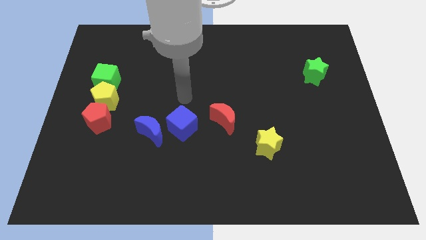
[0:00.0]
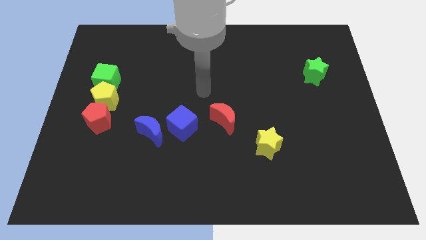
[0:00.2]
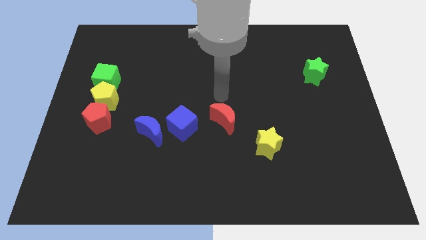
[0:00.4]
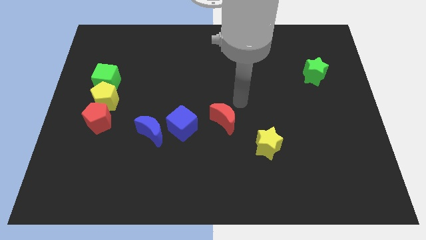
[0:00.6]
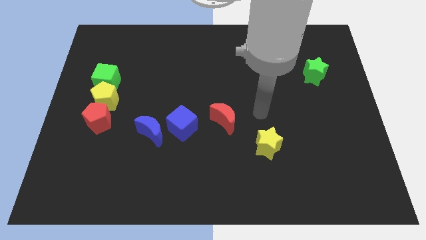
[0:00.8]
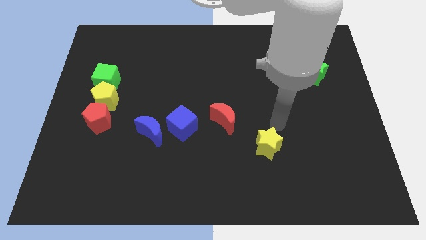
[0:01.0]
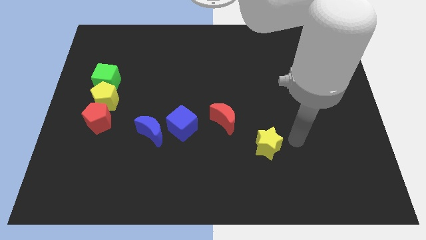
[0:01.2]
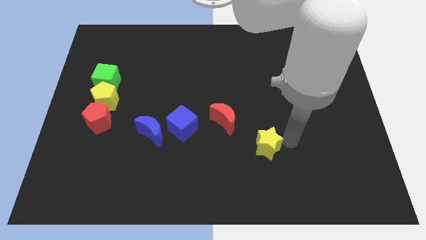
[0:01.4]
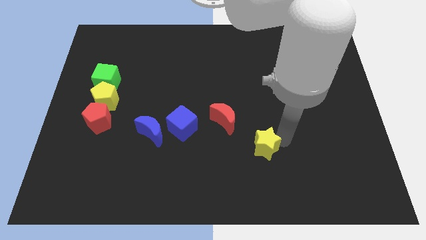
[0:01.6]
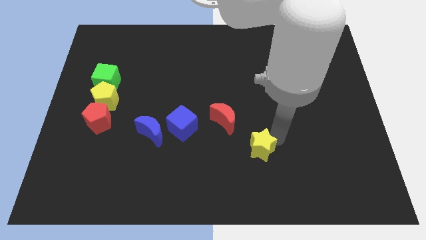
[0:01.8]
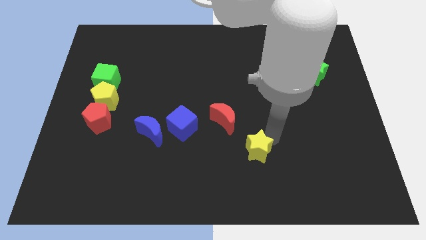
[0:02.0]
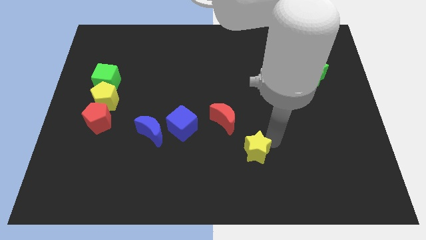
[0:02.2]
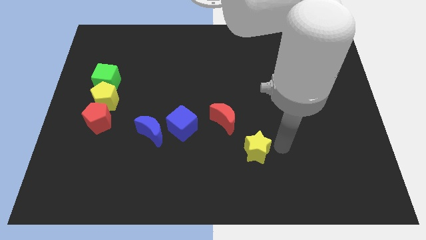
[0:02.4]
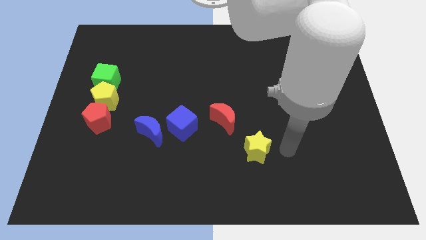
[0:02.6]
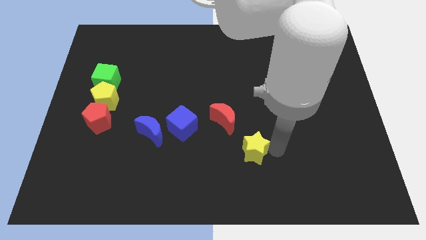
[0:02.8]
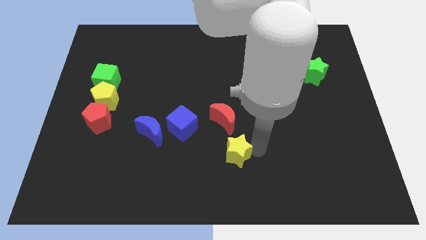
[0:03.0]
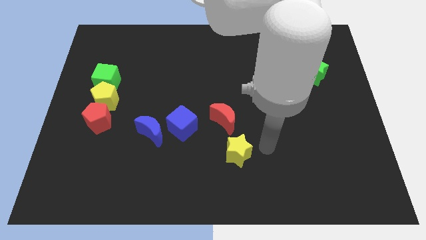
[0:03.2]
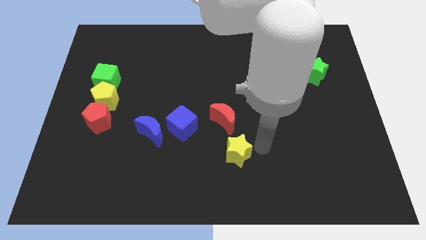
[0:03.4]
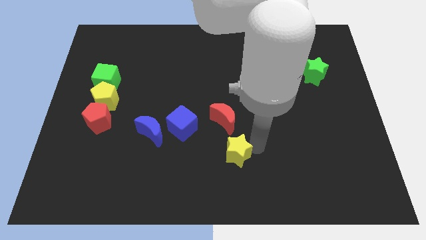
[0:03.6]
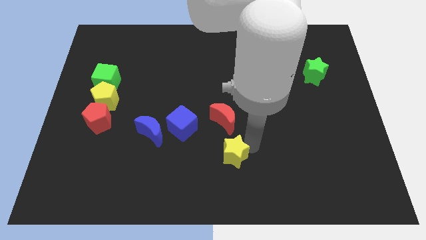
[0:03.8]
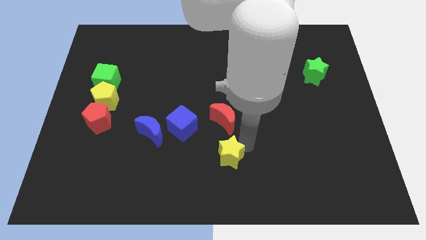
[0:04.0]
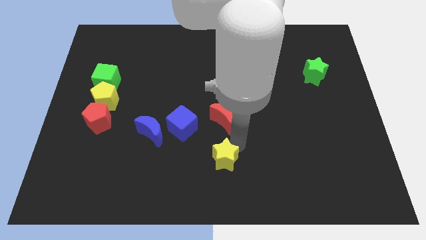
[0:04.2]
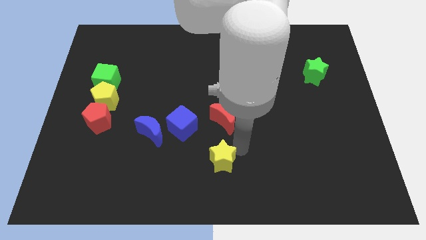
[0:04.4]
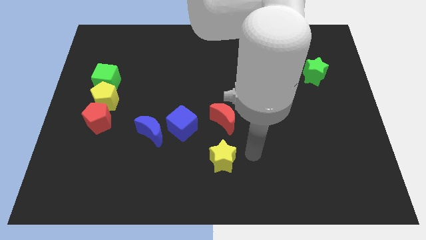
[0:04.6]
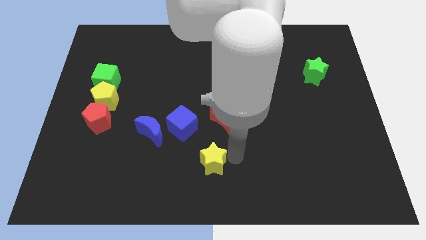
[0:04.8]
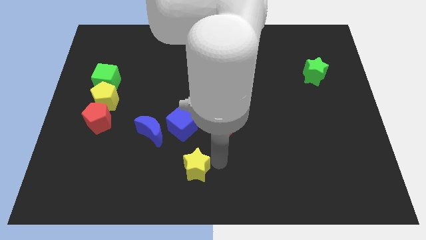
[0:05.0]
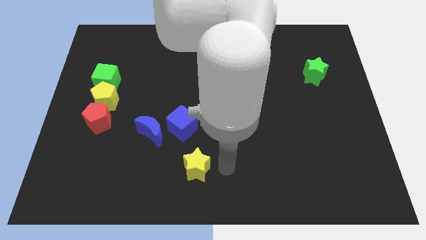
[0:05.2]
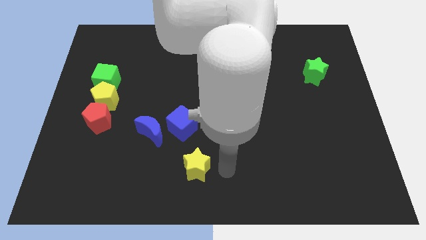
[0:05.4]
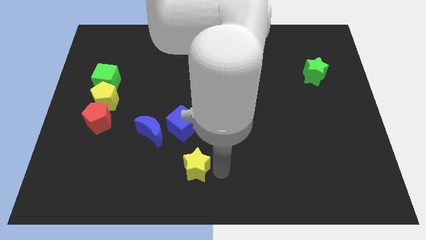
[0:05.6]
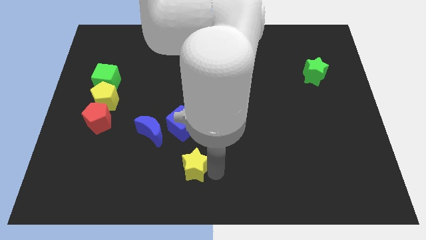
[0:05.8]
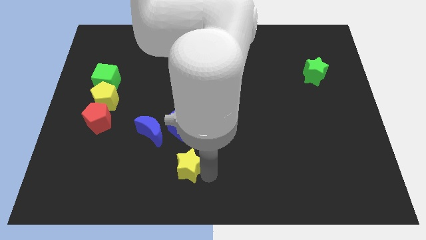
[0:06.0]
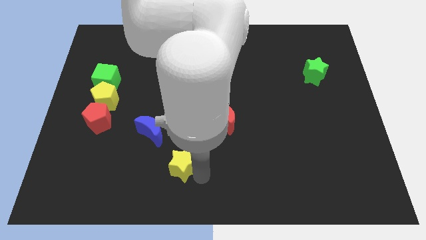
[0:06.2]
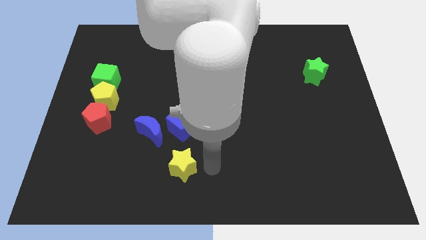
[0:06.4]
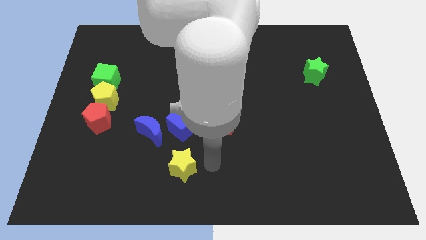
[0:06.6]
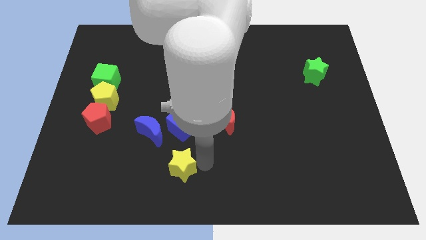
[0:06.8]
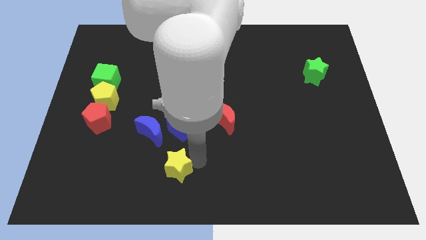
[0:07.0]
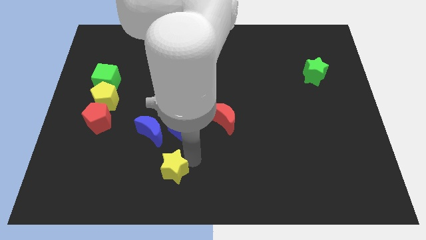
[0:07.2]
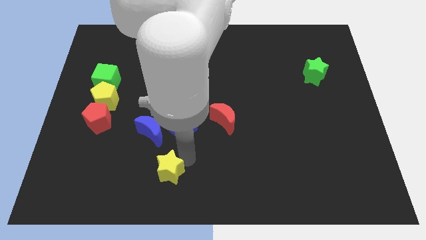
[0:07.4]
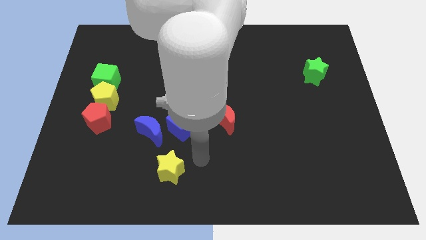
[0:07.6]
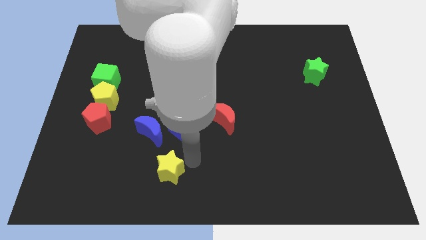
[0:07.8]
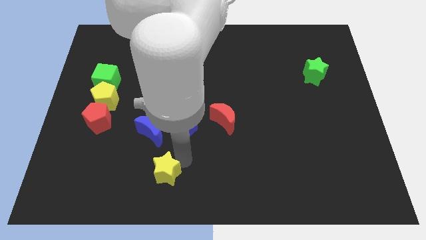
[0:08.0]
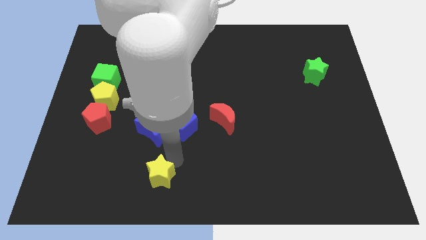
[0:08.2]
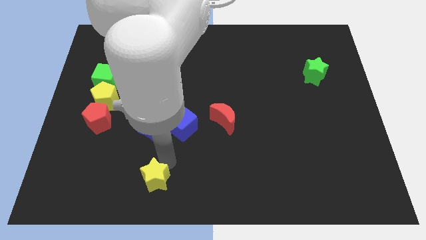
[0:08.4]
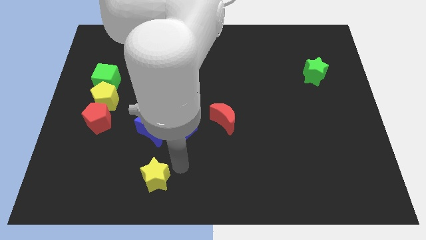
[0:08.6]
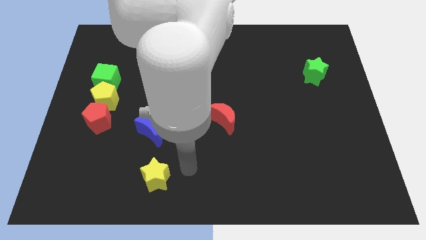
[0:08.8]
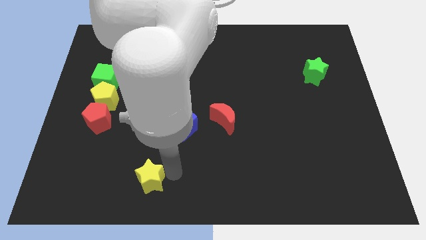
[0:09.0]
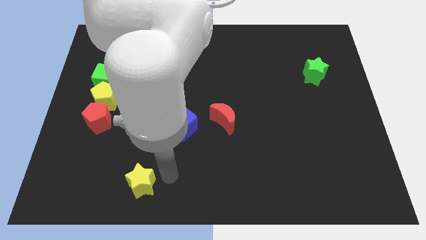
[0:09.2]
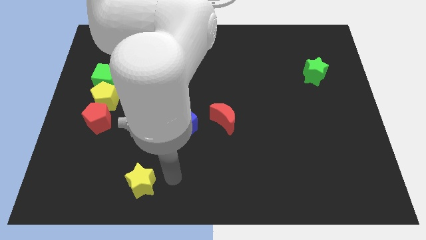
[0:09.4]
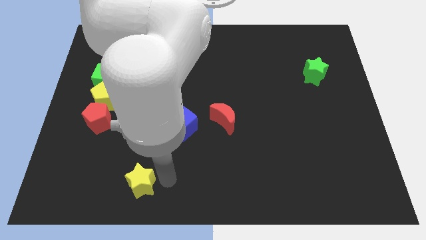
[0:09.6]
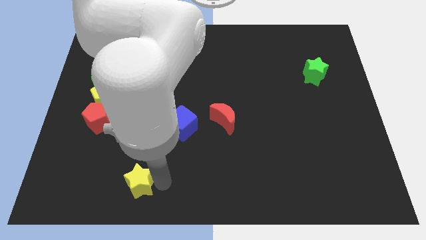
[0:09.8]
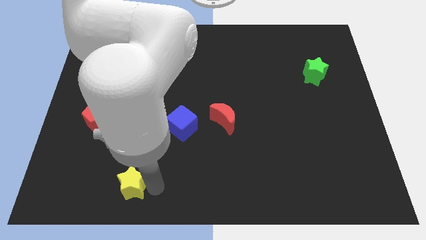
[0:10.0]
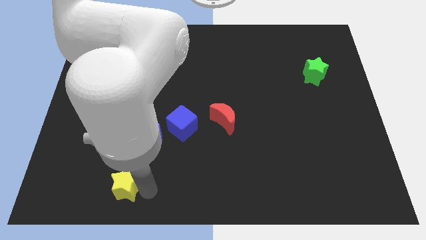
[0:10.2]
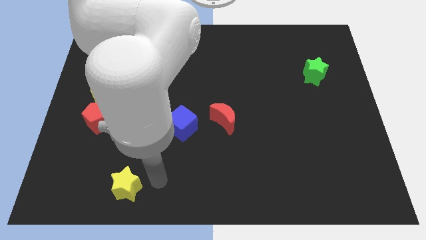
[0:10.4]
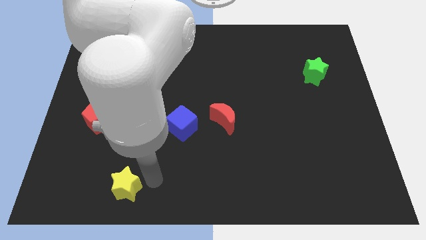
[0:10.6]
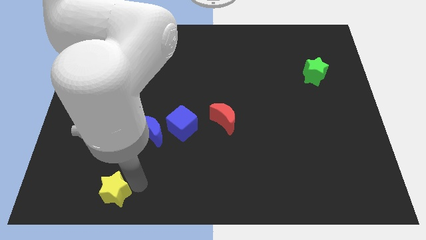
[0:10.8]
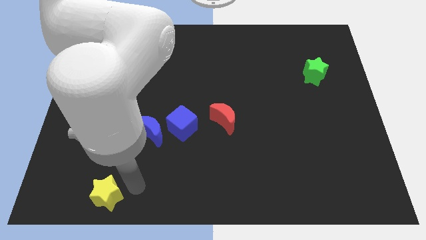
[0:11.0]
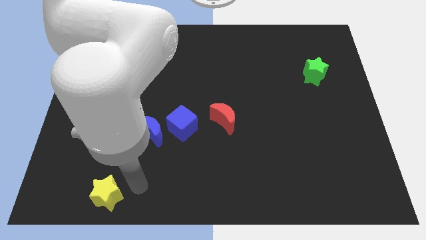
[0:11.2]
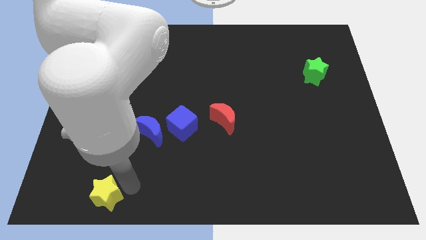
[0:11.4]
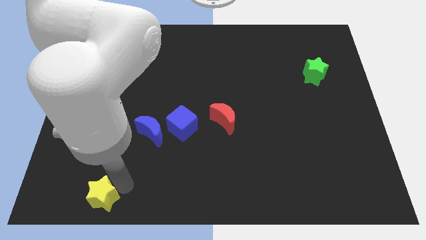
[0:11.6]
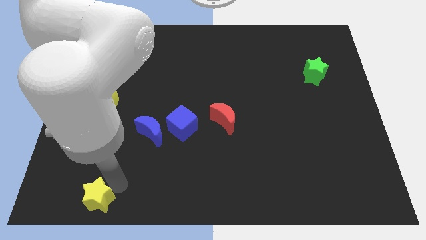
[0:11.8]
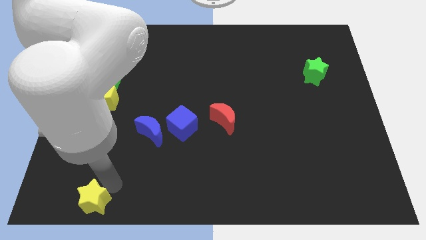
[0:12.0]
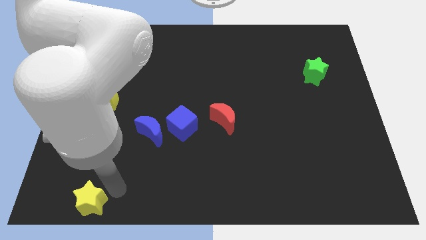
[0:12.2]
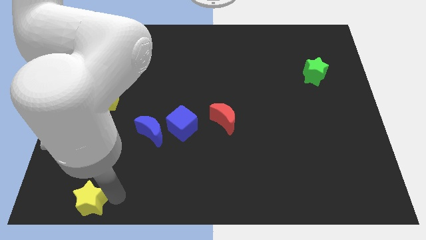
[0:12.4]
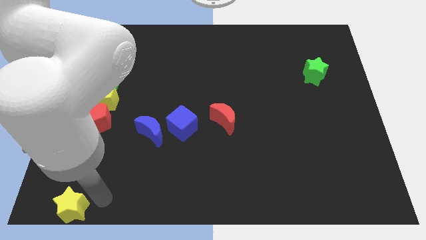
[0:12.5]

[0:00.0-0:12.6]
push the yellow star to the lower left corner

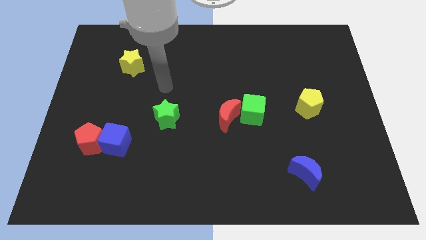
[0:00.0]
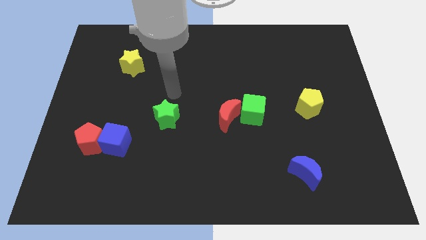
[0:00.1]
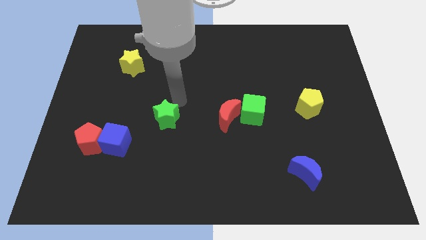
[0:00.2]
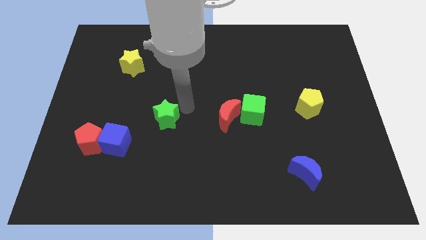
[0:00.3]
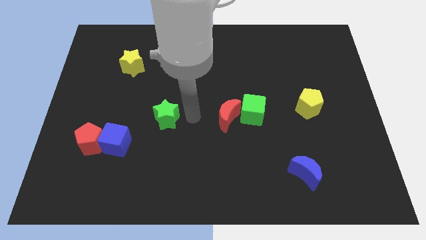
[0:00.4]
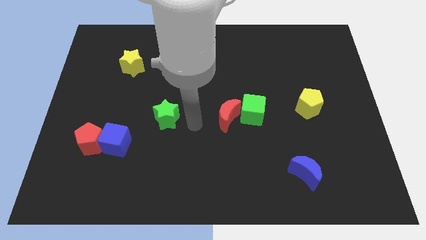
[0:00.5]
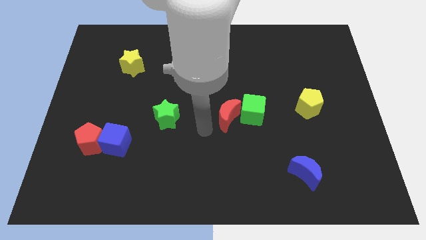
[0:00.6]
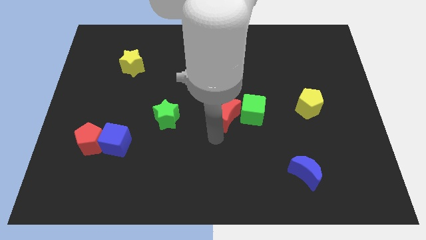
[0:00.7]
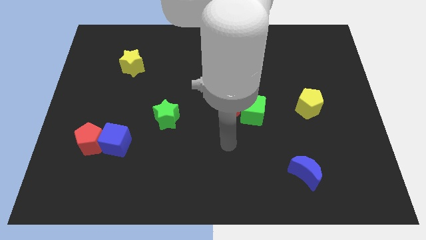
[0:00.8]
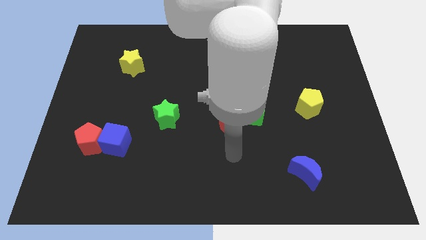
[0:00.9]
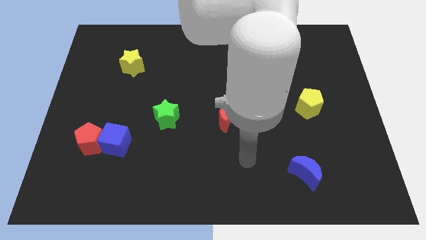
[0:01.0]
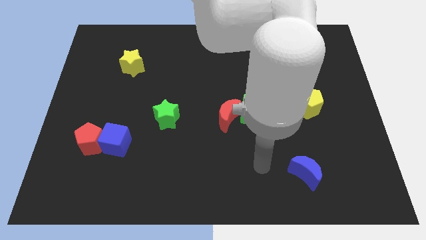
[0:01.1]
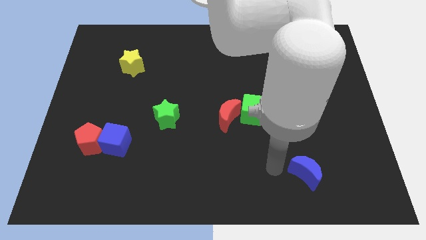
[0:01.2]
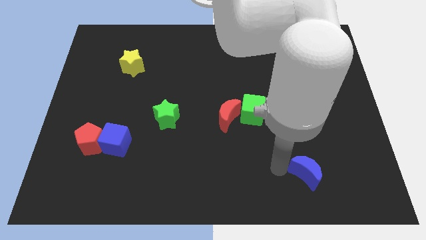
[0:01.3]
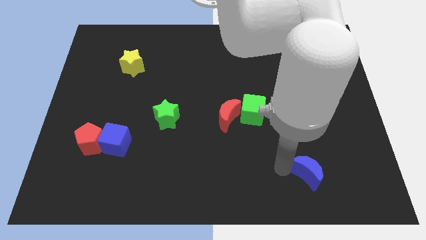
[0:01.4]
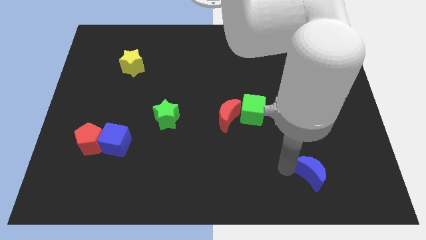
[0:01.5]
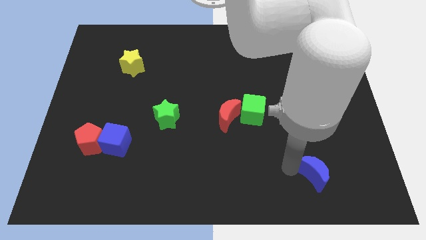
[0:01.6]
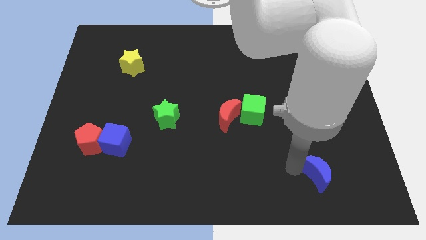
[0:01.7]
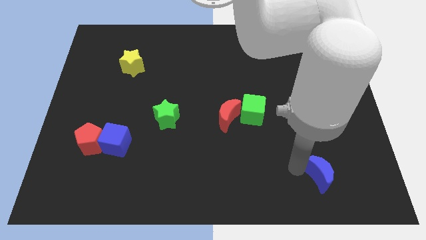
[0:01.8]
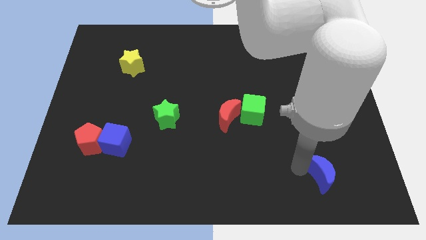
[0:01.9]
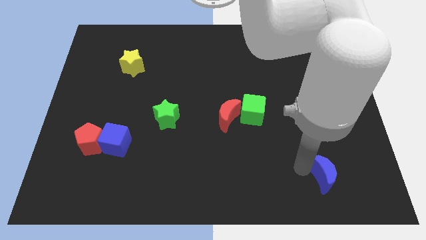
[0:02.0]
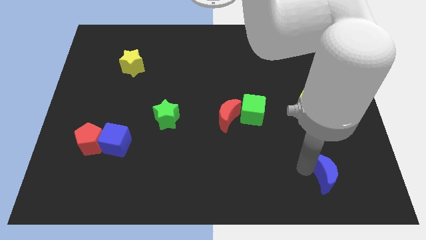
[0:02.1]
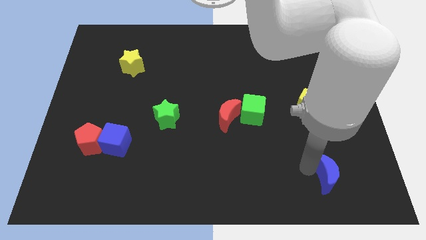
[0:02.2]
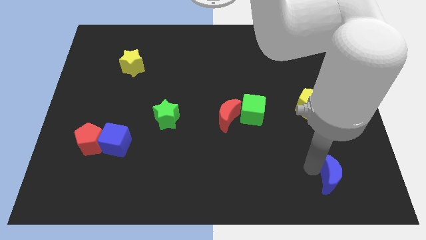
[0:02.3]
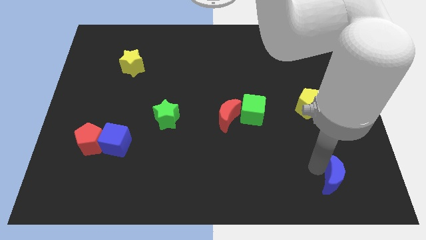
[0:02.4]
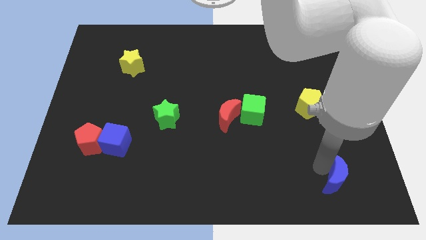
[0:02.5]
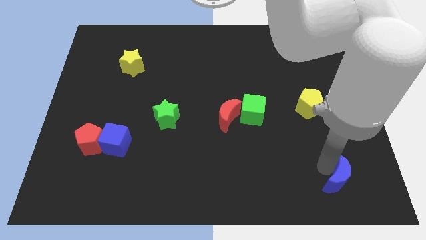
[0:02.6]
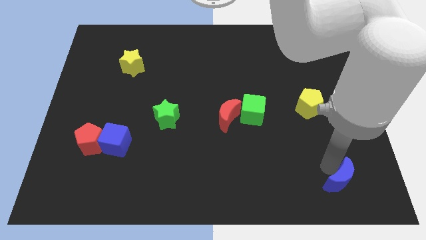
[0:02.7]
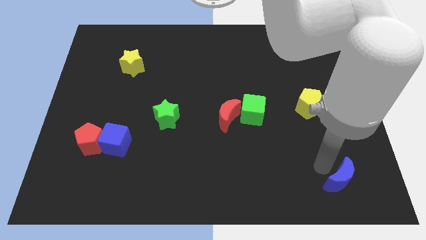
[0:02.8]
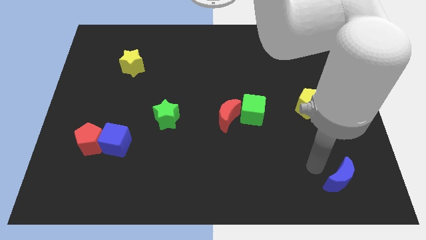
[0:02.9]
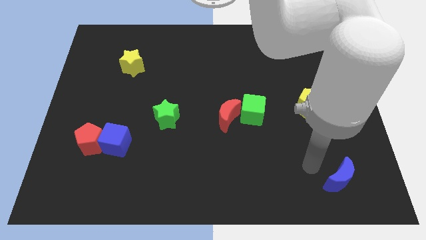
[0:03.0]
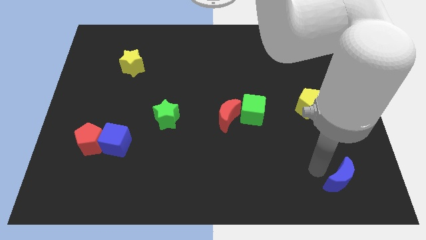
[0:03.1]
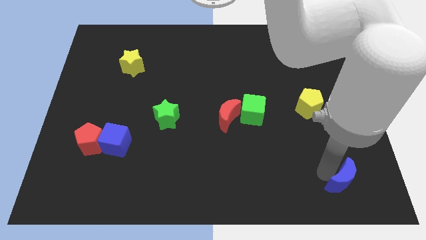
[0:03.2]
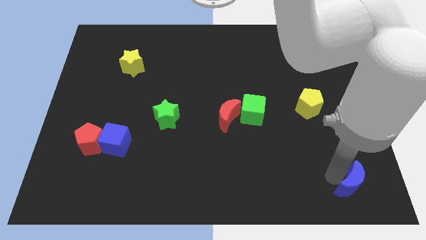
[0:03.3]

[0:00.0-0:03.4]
push the blue moon to the lower right corner
